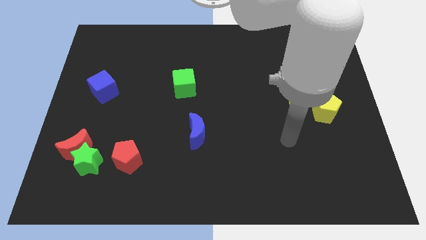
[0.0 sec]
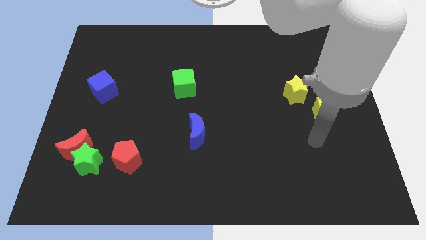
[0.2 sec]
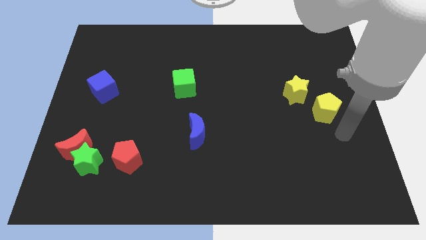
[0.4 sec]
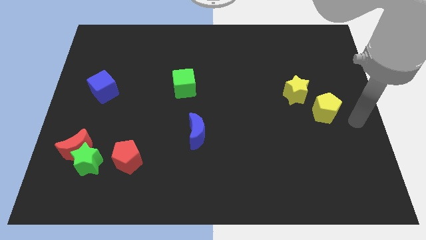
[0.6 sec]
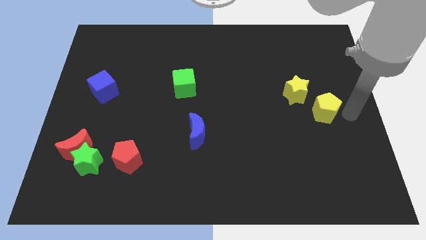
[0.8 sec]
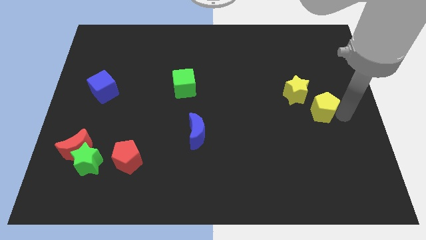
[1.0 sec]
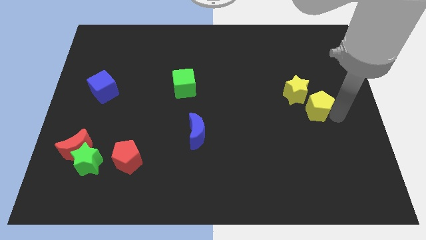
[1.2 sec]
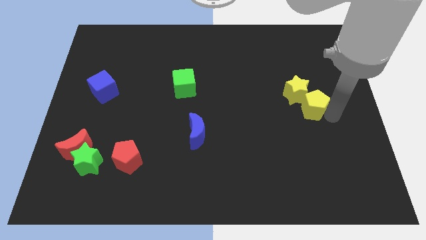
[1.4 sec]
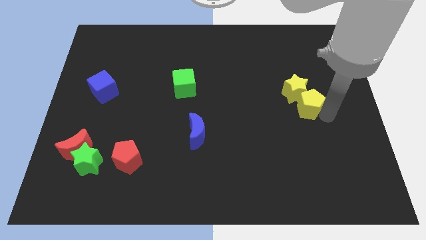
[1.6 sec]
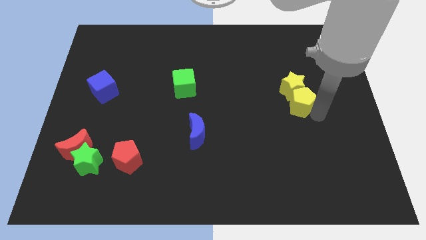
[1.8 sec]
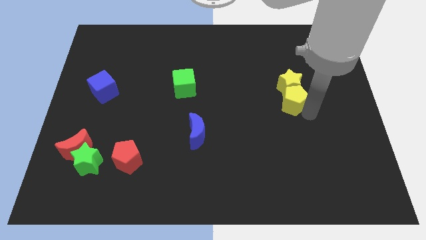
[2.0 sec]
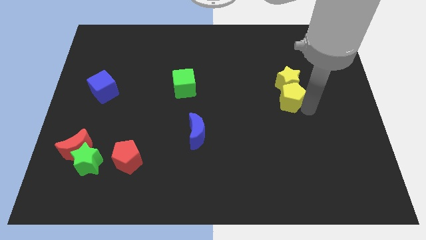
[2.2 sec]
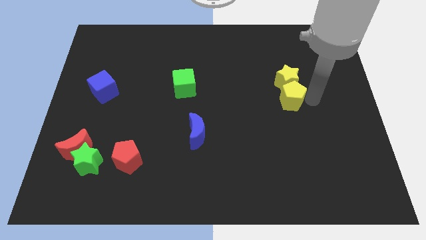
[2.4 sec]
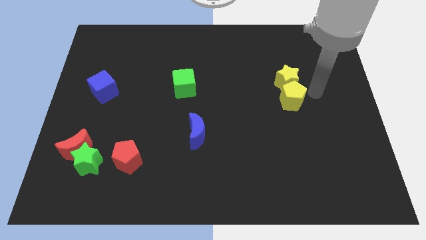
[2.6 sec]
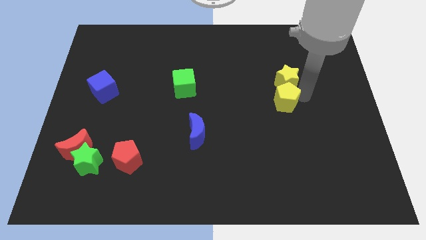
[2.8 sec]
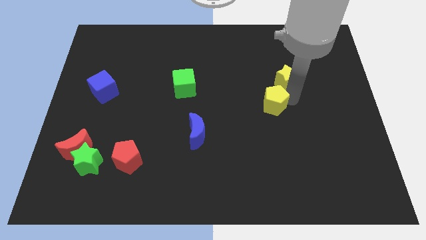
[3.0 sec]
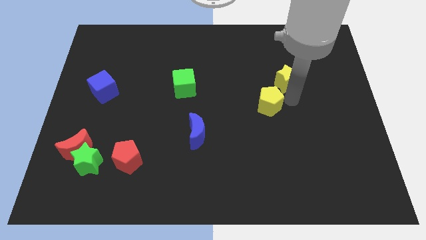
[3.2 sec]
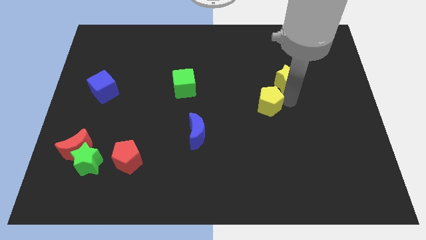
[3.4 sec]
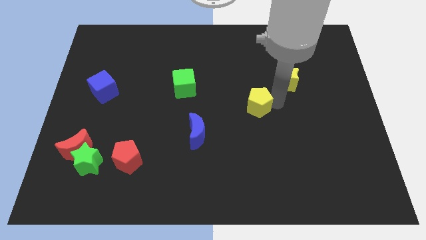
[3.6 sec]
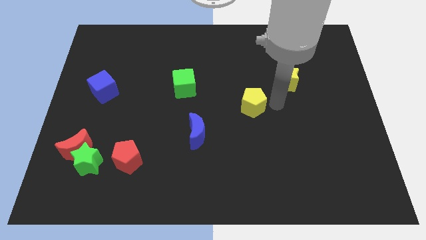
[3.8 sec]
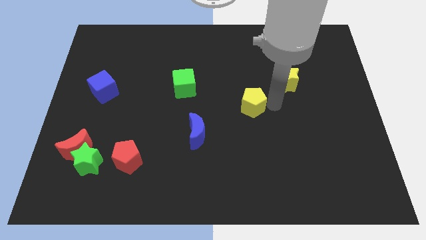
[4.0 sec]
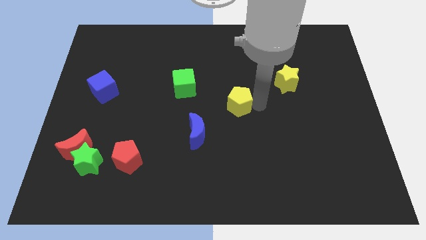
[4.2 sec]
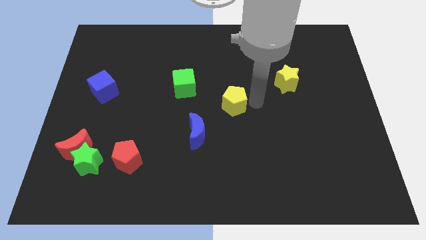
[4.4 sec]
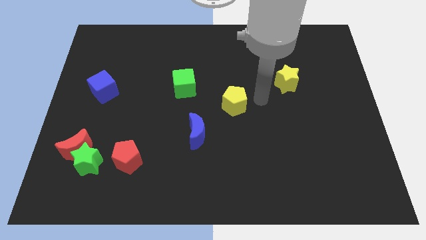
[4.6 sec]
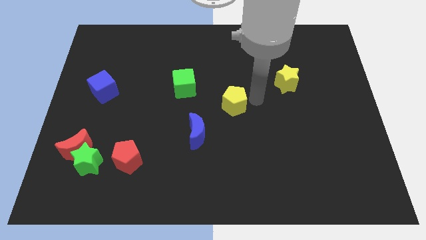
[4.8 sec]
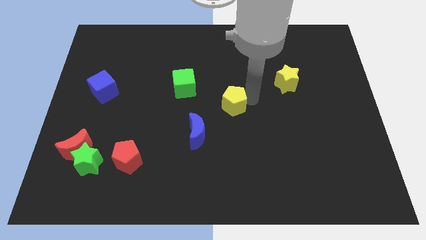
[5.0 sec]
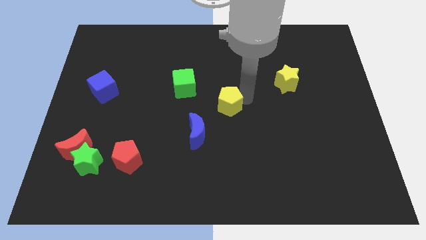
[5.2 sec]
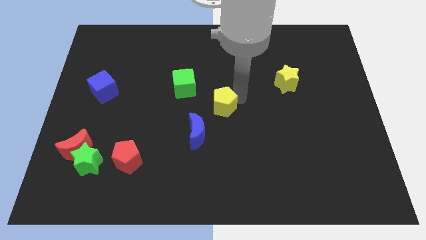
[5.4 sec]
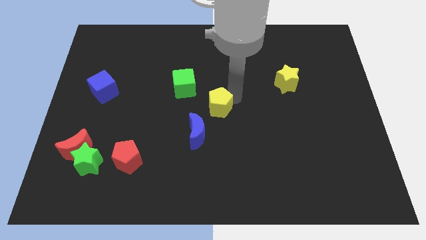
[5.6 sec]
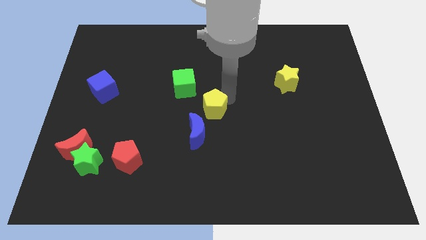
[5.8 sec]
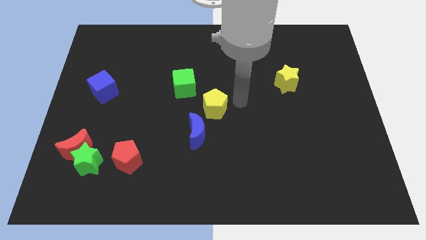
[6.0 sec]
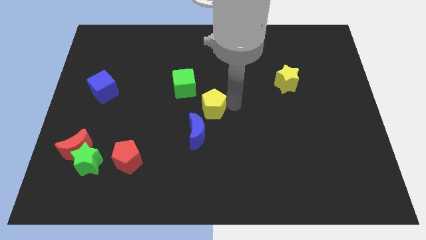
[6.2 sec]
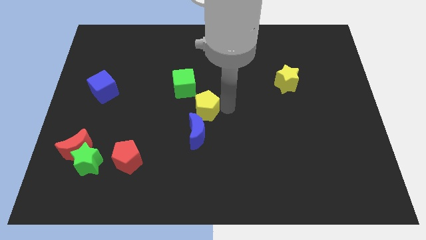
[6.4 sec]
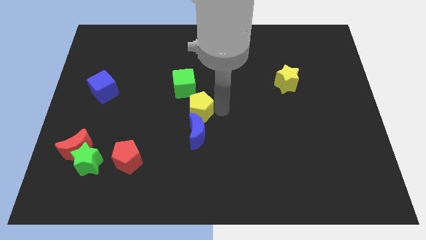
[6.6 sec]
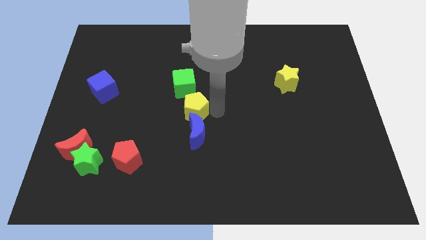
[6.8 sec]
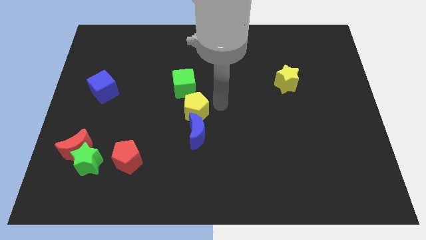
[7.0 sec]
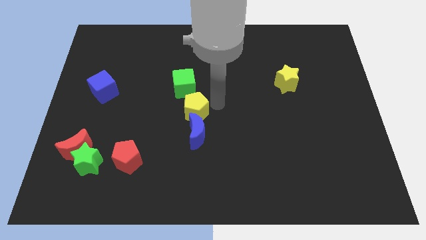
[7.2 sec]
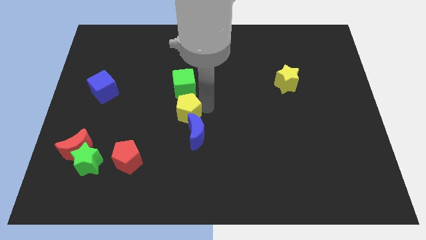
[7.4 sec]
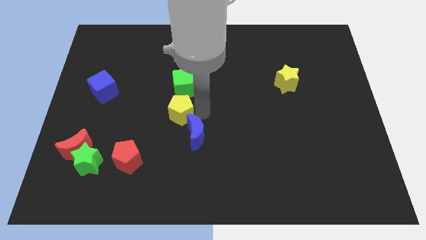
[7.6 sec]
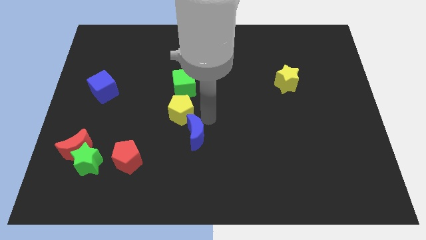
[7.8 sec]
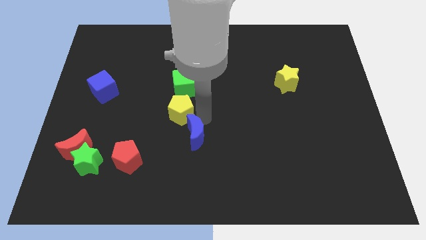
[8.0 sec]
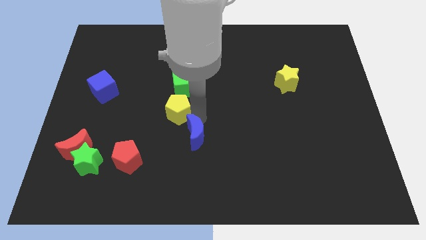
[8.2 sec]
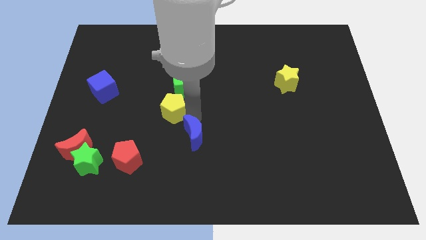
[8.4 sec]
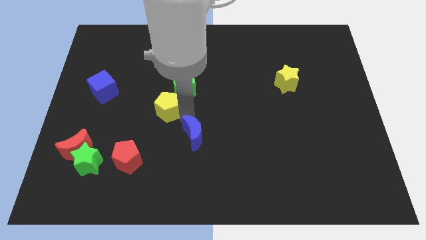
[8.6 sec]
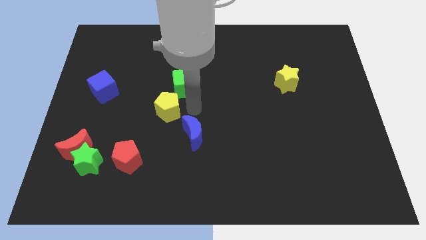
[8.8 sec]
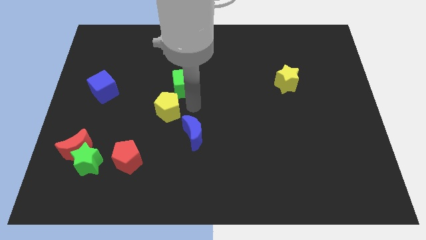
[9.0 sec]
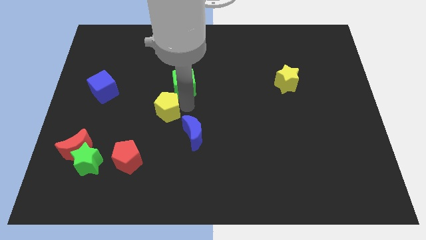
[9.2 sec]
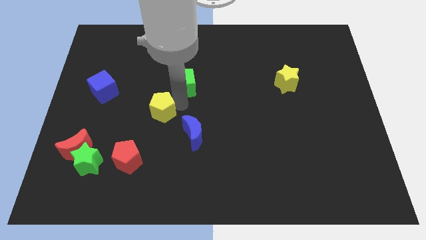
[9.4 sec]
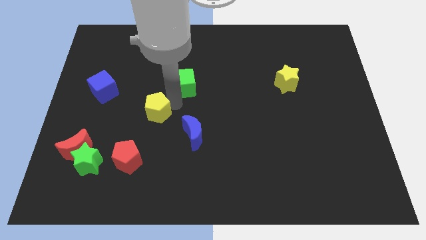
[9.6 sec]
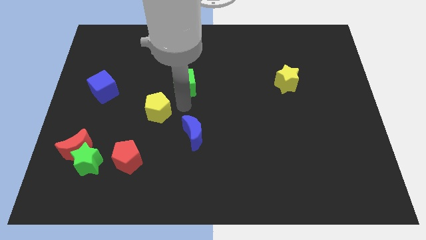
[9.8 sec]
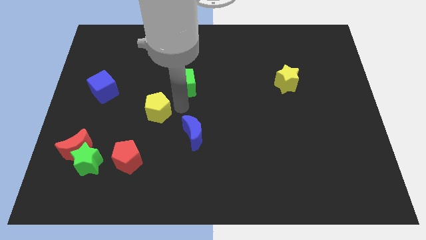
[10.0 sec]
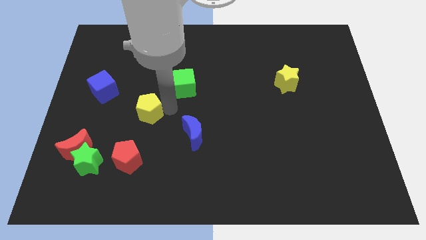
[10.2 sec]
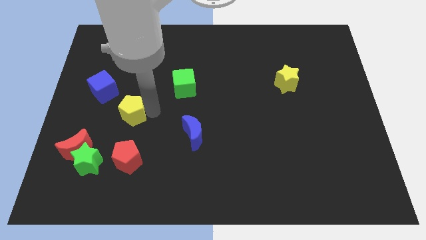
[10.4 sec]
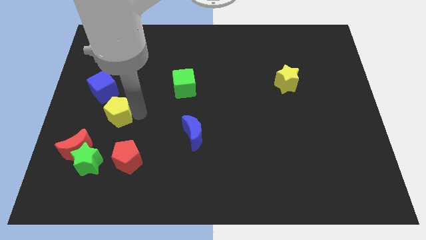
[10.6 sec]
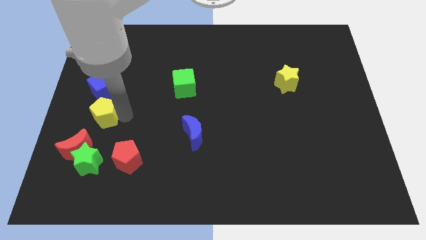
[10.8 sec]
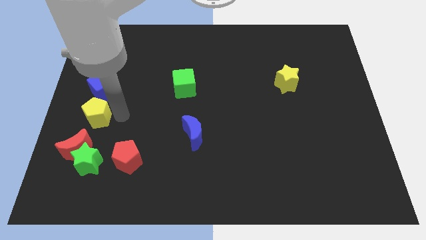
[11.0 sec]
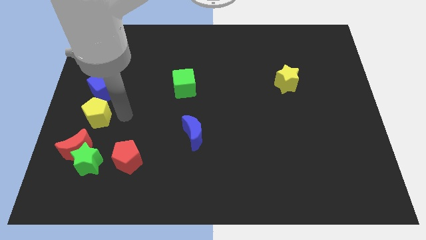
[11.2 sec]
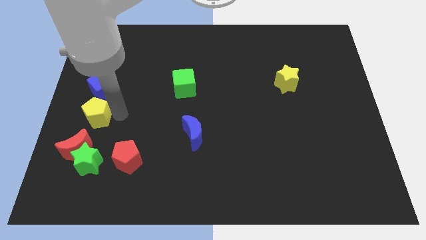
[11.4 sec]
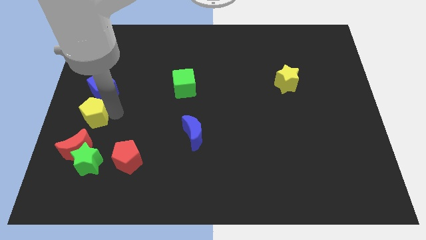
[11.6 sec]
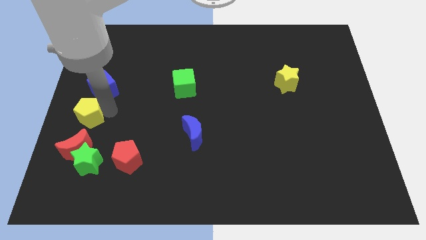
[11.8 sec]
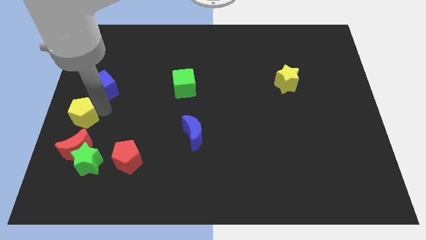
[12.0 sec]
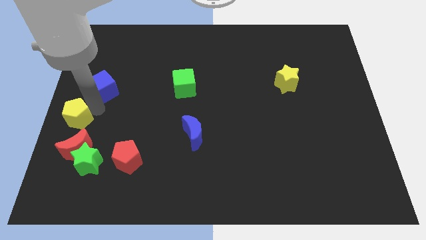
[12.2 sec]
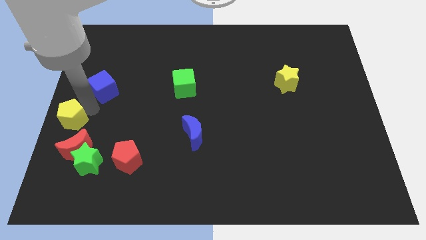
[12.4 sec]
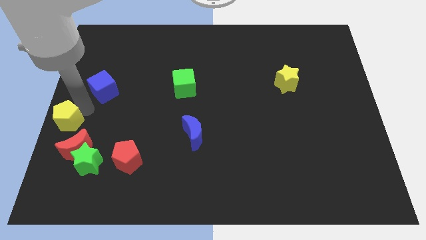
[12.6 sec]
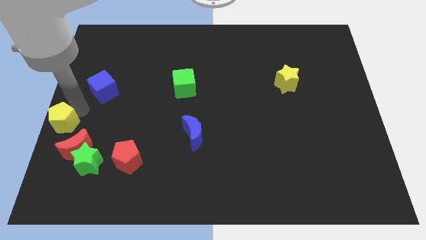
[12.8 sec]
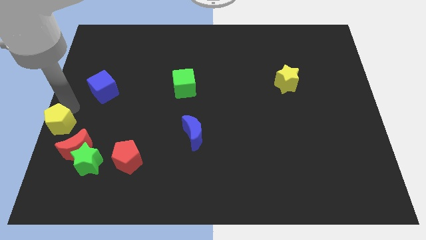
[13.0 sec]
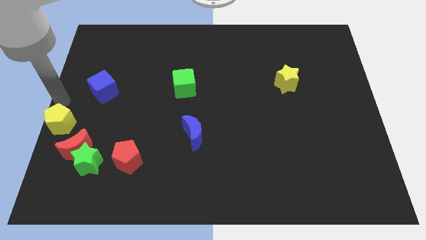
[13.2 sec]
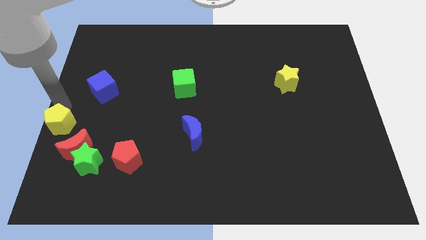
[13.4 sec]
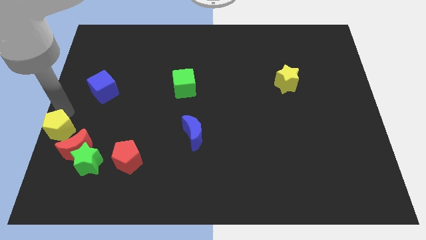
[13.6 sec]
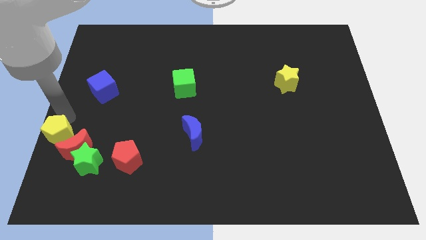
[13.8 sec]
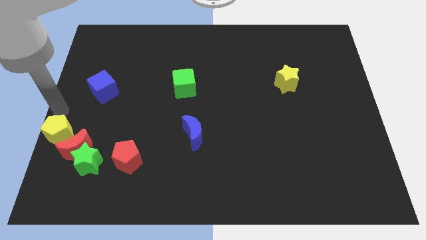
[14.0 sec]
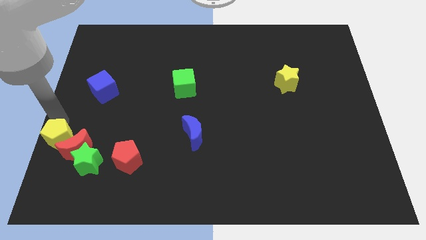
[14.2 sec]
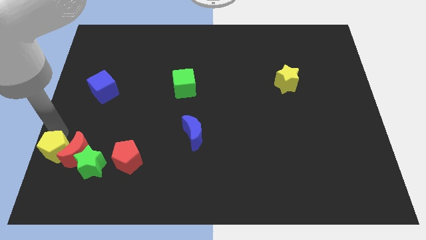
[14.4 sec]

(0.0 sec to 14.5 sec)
push the yellow pentagon to the left of the red pentagon
